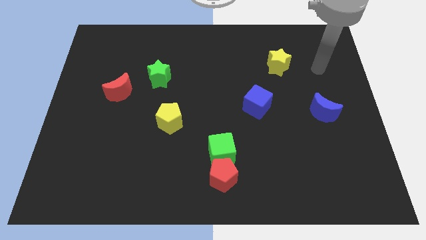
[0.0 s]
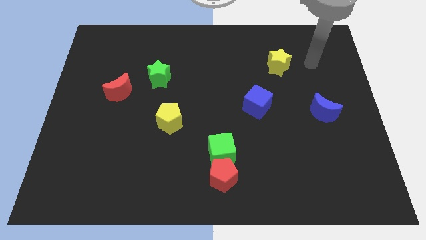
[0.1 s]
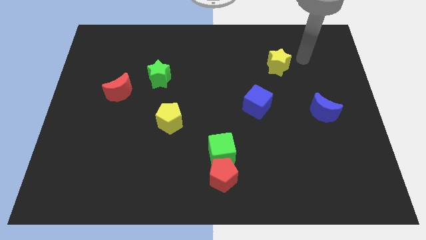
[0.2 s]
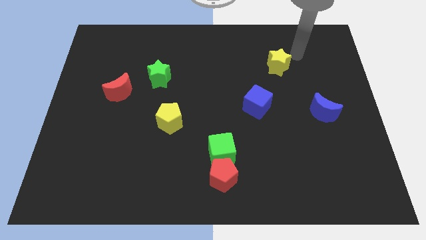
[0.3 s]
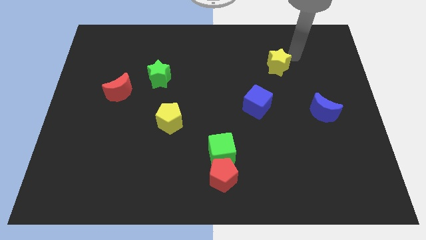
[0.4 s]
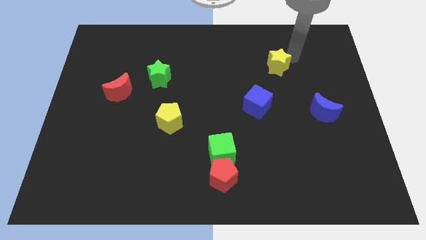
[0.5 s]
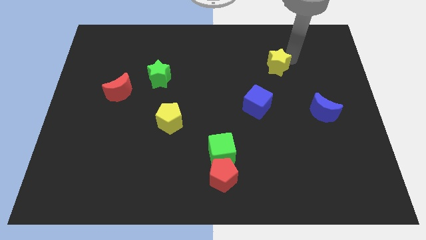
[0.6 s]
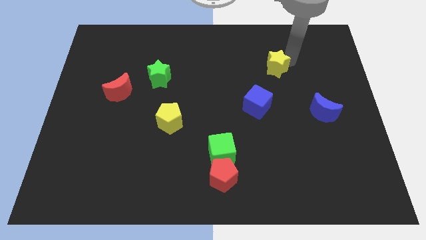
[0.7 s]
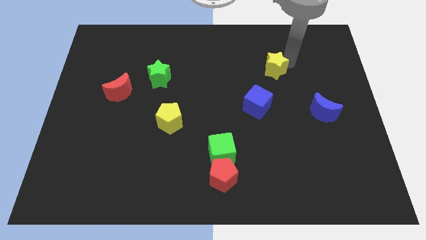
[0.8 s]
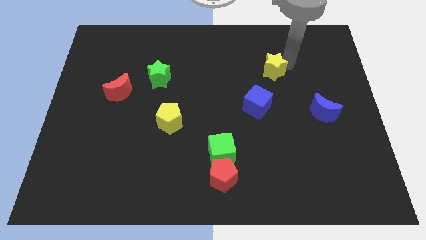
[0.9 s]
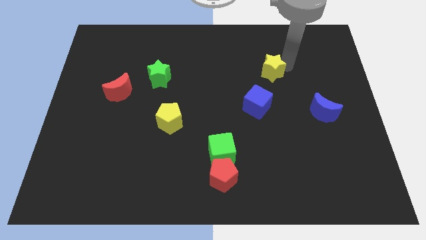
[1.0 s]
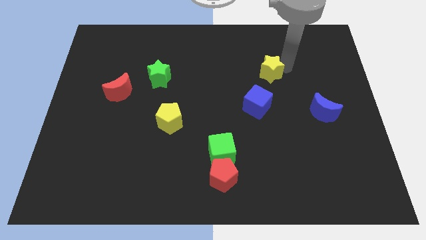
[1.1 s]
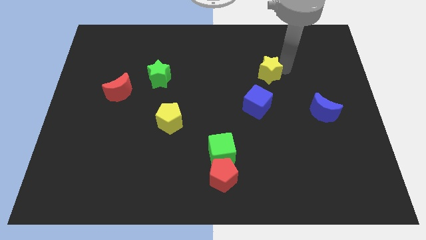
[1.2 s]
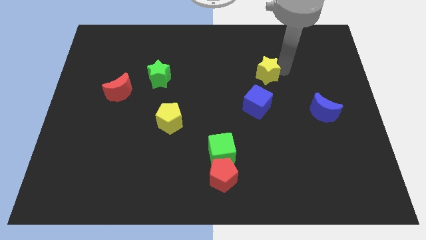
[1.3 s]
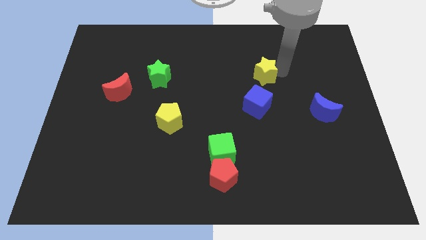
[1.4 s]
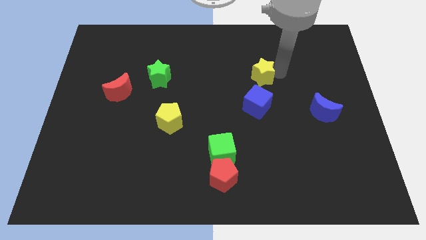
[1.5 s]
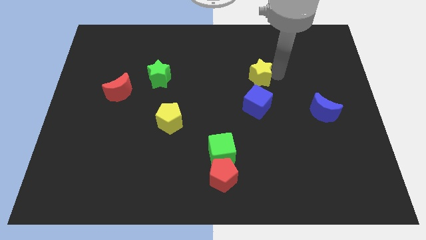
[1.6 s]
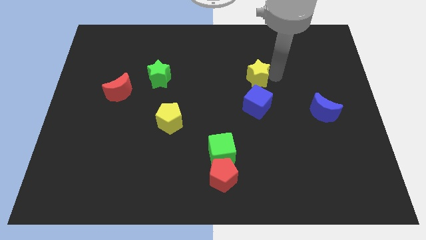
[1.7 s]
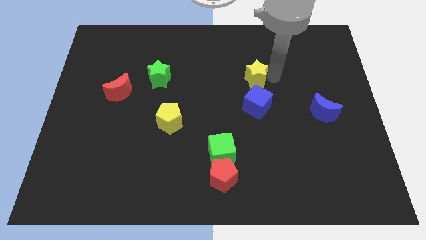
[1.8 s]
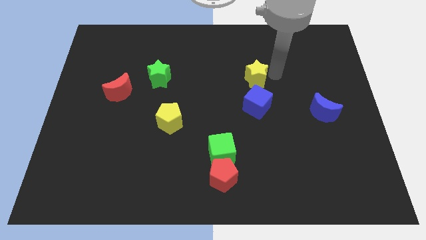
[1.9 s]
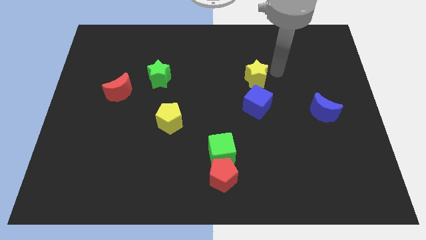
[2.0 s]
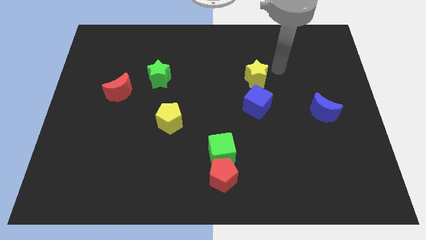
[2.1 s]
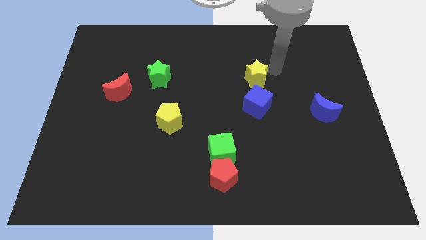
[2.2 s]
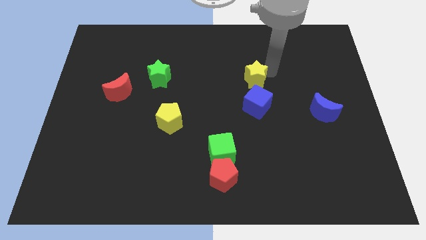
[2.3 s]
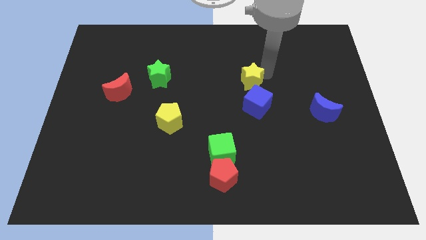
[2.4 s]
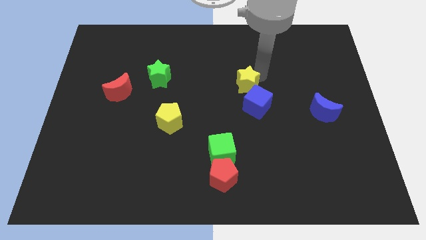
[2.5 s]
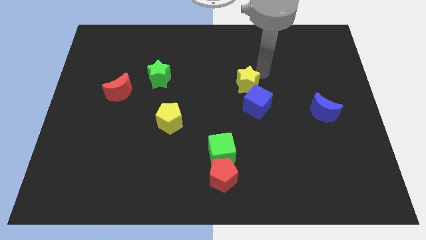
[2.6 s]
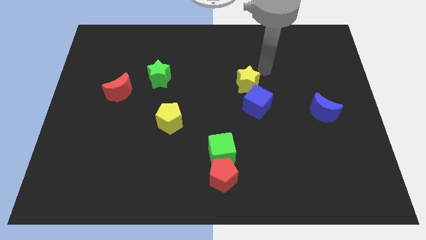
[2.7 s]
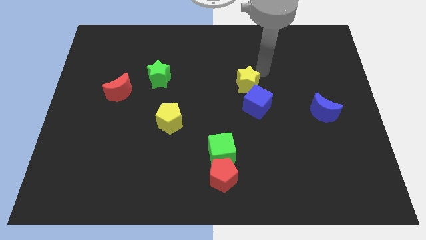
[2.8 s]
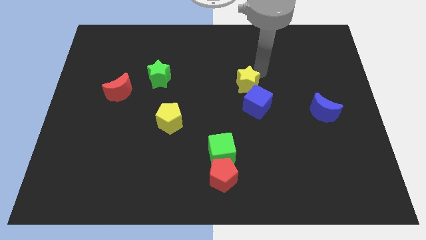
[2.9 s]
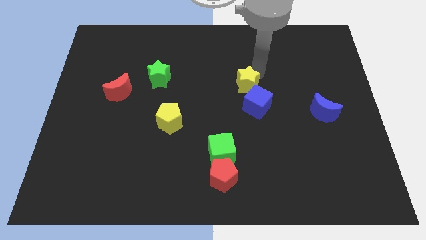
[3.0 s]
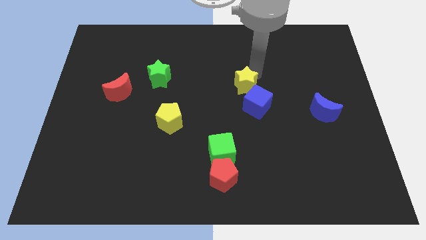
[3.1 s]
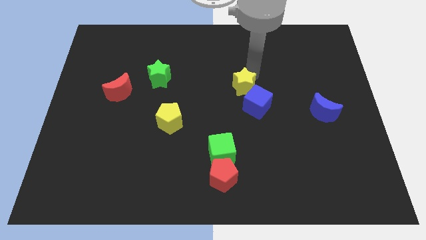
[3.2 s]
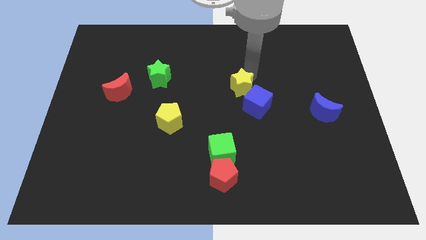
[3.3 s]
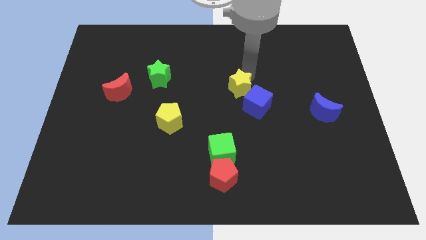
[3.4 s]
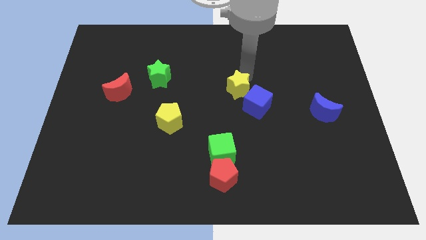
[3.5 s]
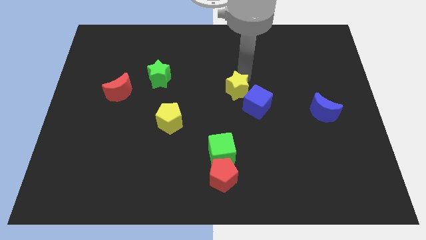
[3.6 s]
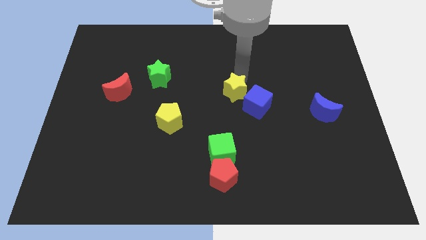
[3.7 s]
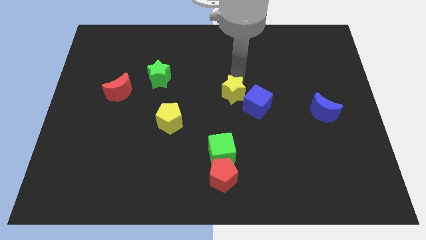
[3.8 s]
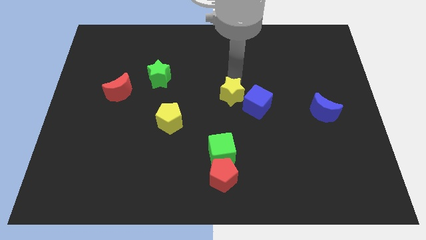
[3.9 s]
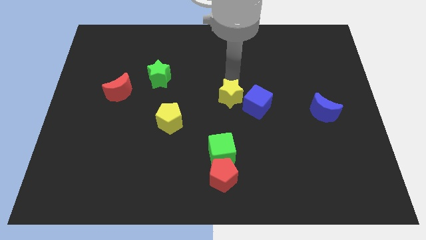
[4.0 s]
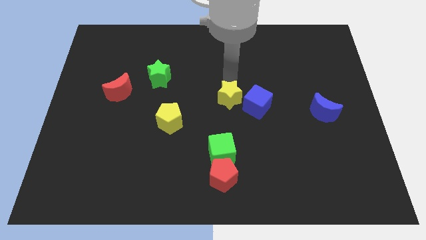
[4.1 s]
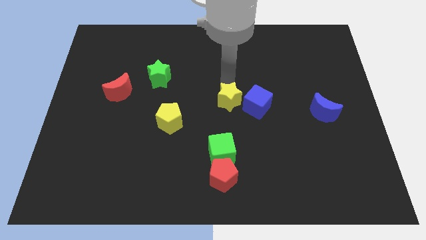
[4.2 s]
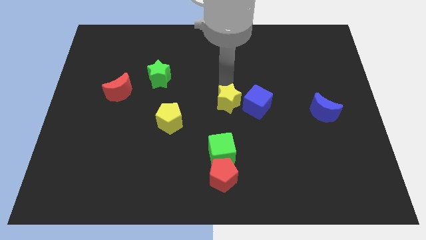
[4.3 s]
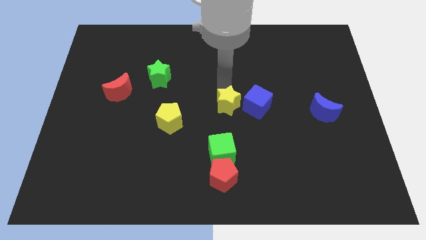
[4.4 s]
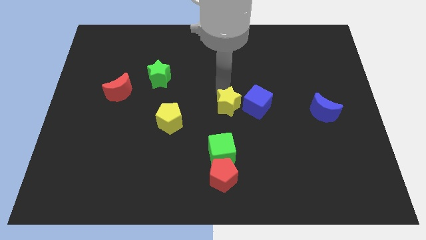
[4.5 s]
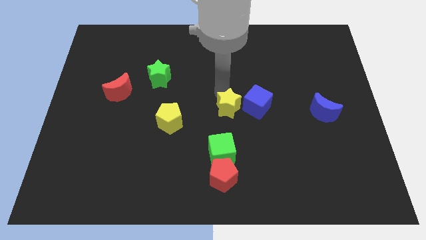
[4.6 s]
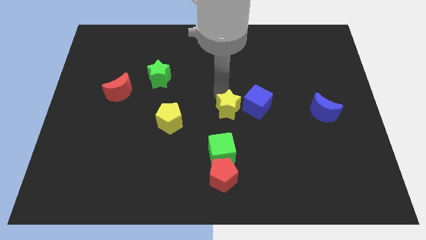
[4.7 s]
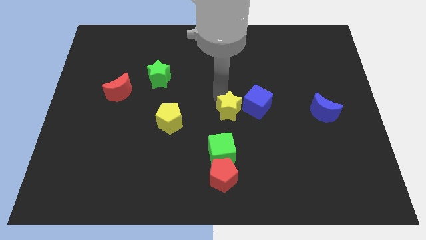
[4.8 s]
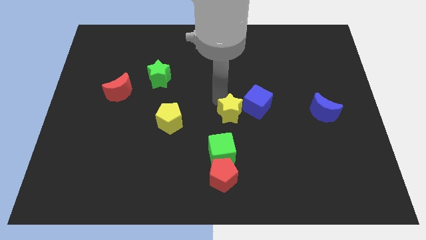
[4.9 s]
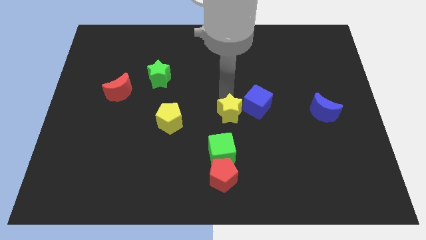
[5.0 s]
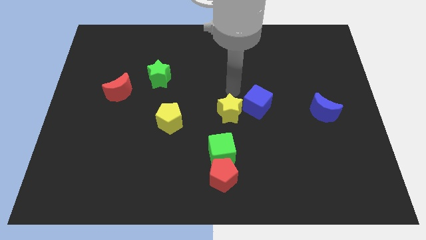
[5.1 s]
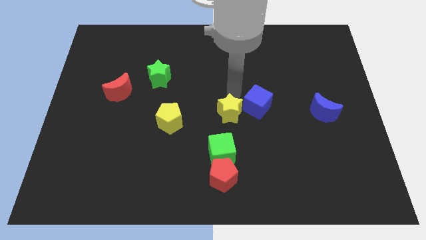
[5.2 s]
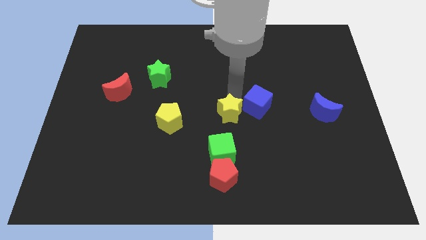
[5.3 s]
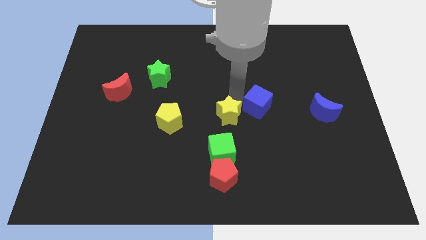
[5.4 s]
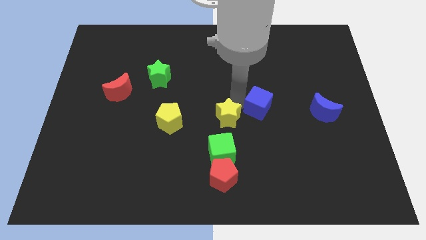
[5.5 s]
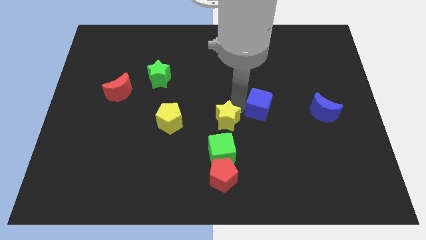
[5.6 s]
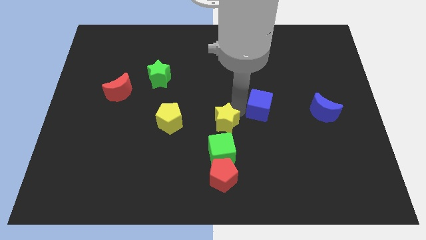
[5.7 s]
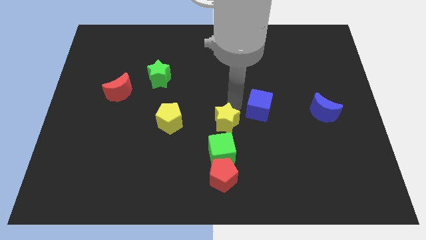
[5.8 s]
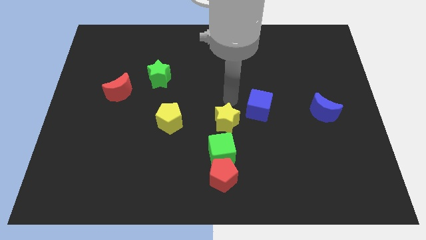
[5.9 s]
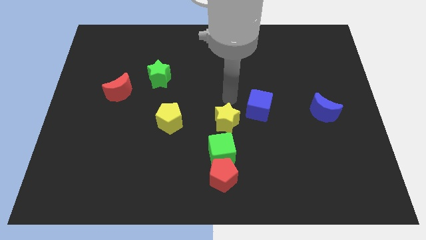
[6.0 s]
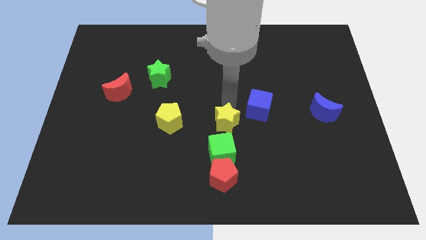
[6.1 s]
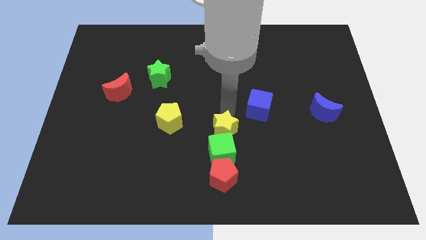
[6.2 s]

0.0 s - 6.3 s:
move the yellow star to the green cube

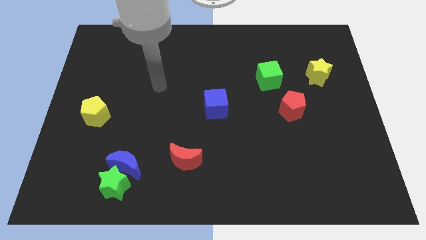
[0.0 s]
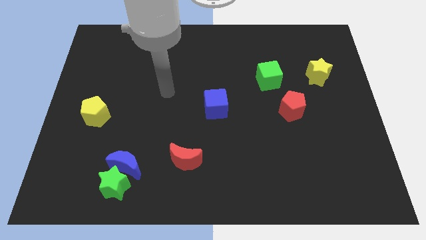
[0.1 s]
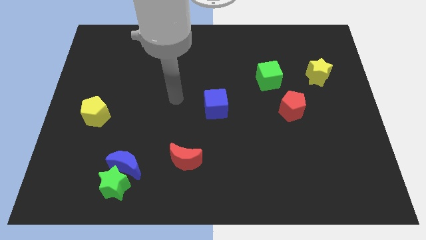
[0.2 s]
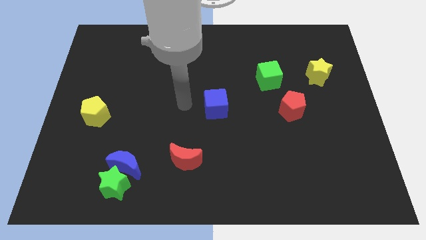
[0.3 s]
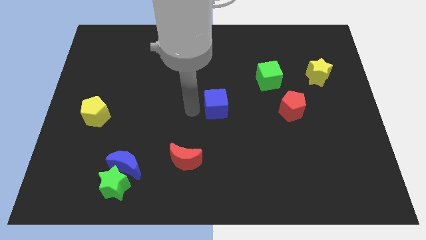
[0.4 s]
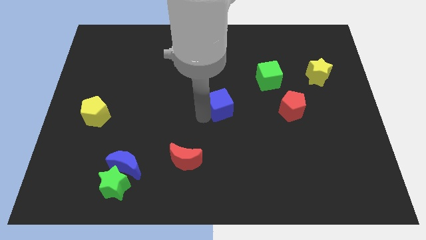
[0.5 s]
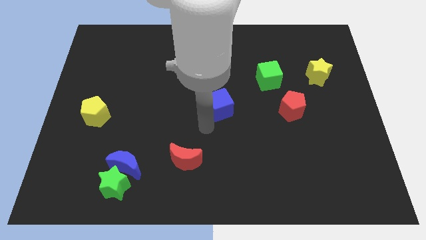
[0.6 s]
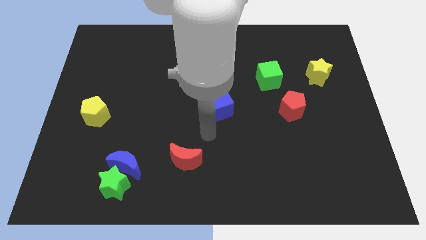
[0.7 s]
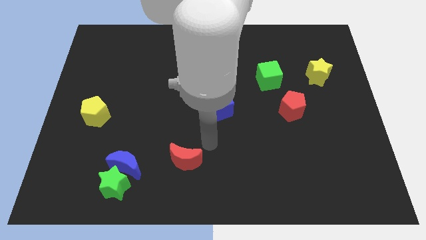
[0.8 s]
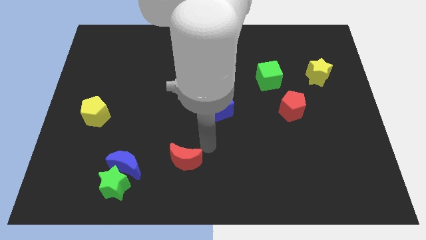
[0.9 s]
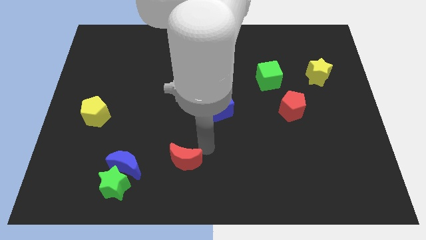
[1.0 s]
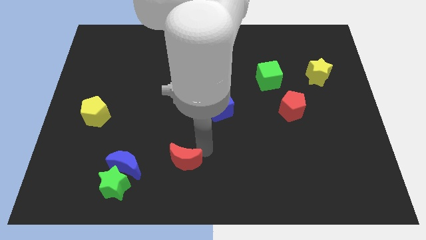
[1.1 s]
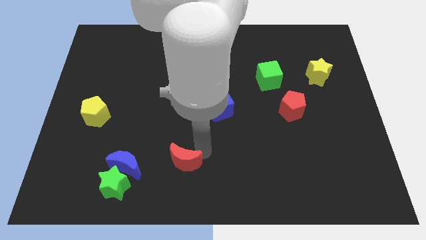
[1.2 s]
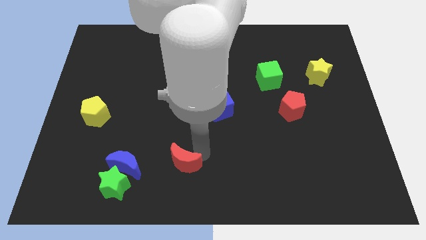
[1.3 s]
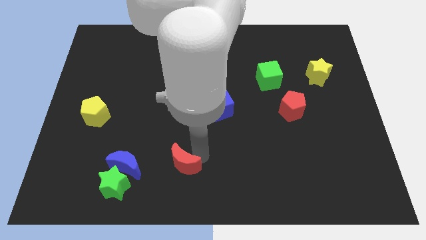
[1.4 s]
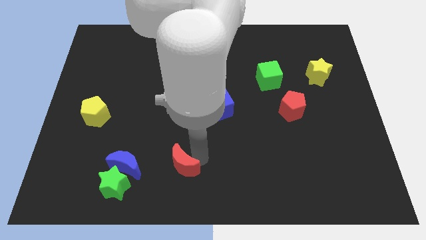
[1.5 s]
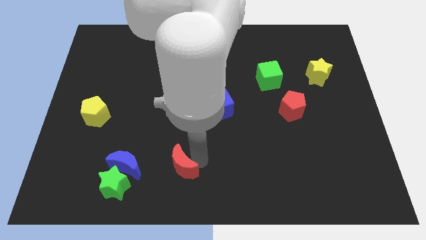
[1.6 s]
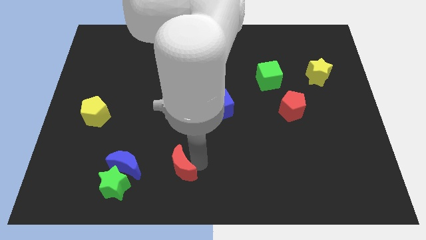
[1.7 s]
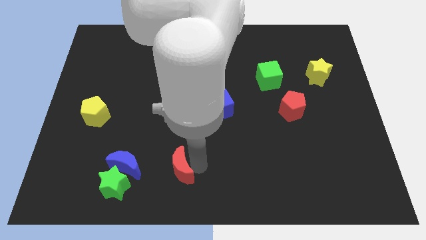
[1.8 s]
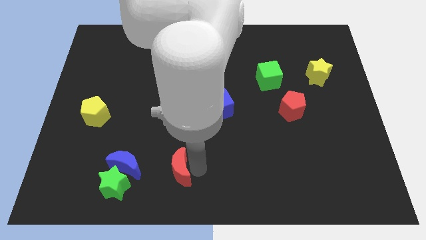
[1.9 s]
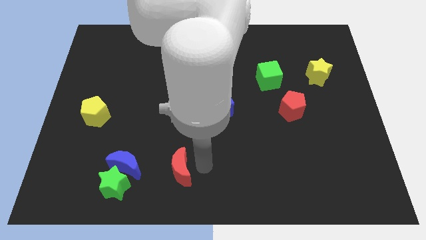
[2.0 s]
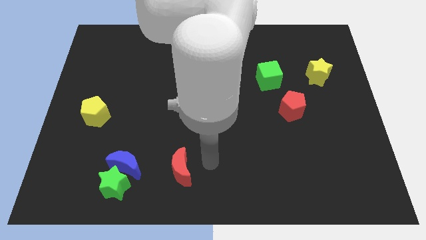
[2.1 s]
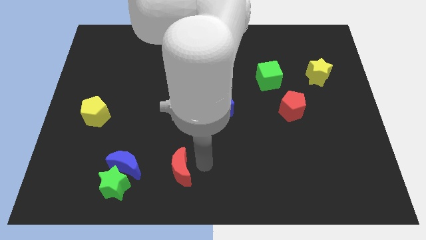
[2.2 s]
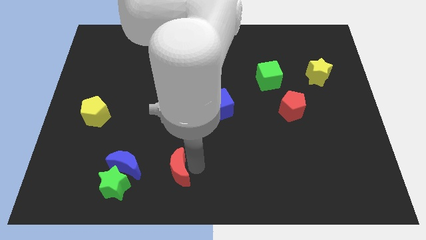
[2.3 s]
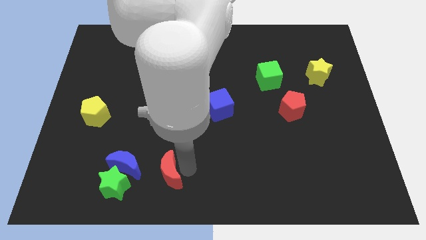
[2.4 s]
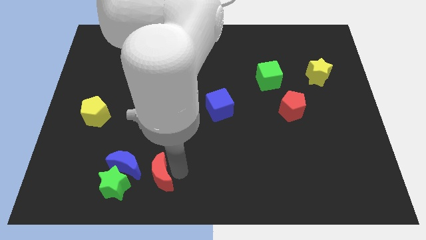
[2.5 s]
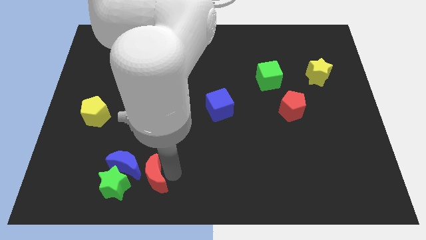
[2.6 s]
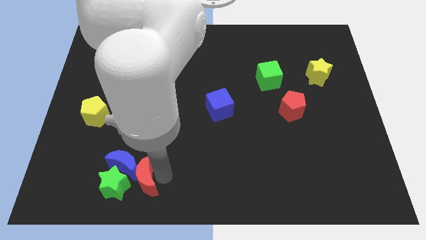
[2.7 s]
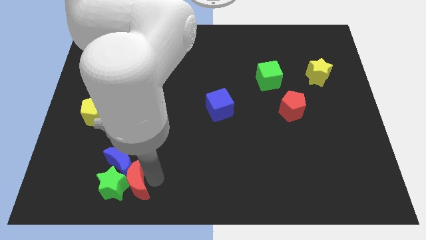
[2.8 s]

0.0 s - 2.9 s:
move the red moon close to the green star
